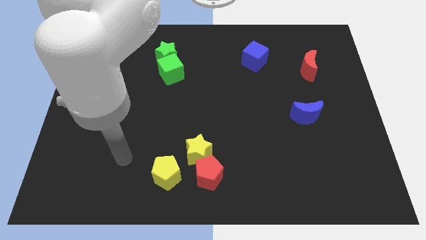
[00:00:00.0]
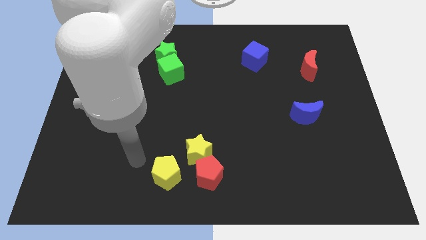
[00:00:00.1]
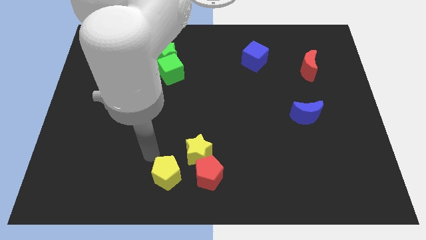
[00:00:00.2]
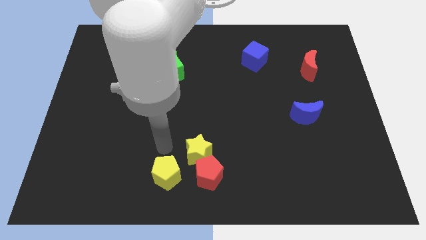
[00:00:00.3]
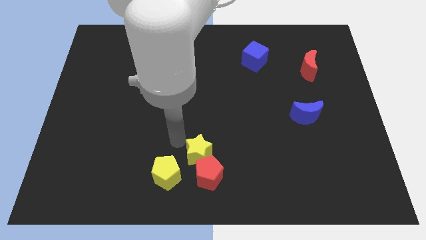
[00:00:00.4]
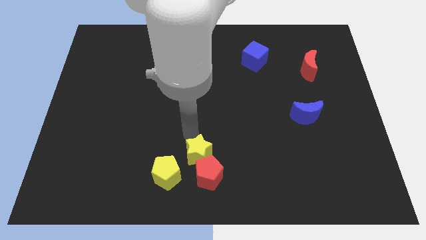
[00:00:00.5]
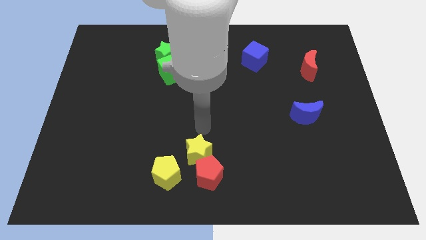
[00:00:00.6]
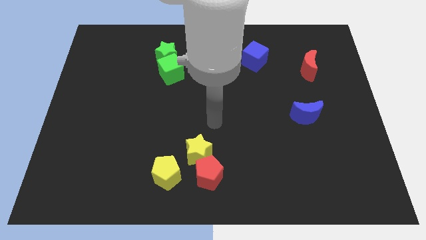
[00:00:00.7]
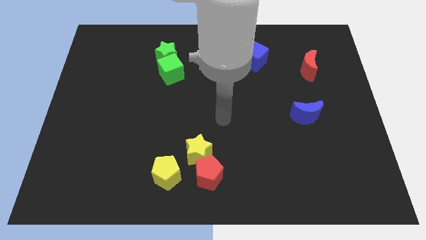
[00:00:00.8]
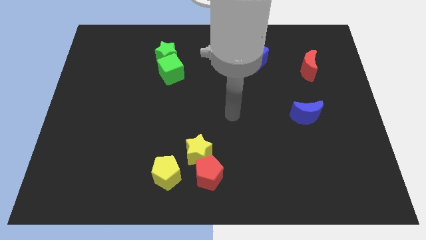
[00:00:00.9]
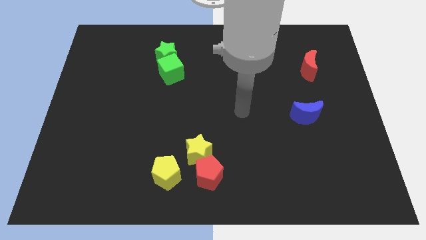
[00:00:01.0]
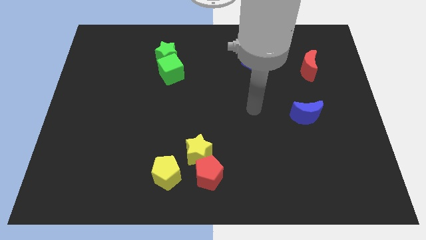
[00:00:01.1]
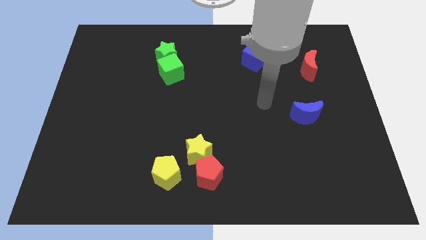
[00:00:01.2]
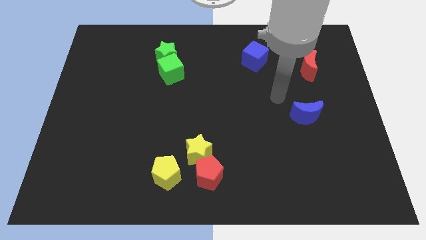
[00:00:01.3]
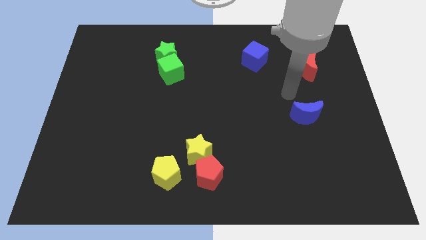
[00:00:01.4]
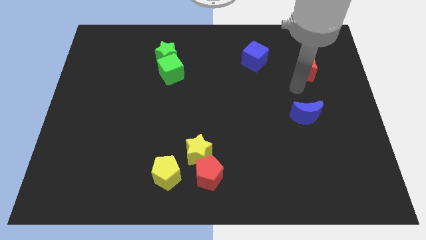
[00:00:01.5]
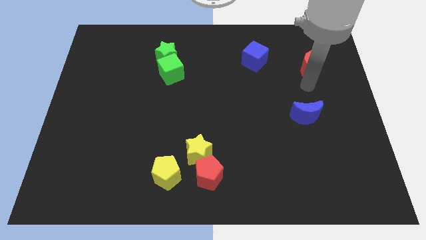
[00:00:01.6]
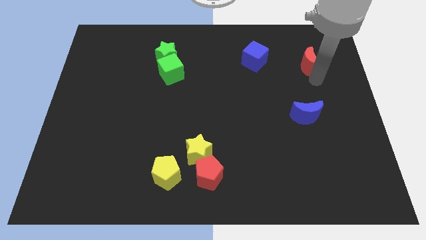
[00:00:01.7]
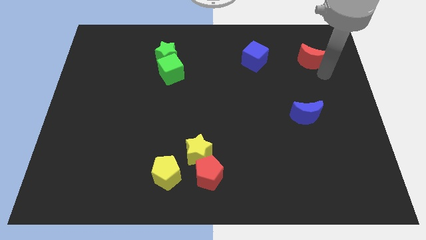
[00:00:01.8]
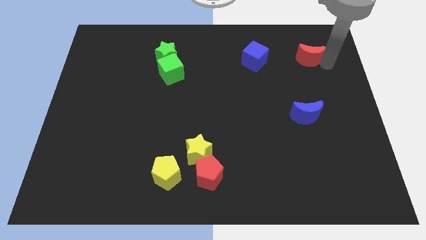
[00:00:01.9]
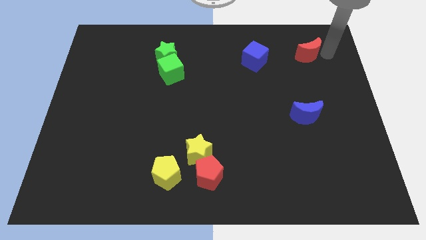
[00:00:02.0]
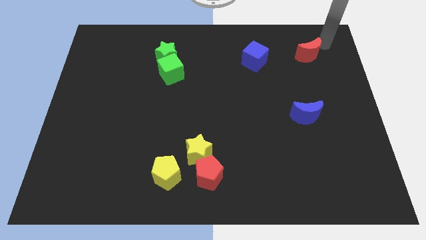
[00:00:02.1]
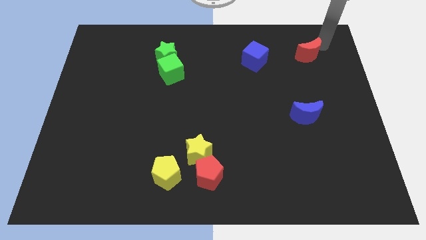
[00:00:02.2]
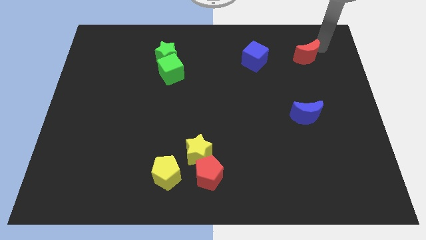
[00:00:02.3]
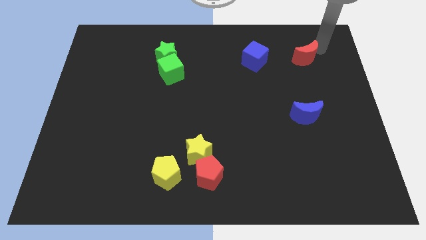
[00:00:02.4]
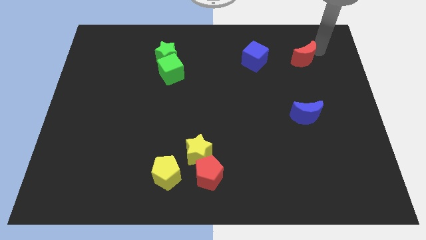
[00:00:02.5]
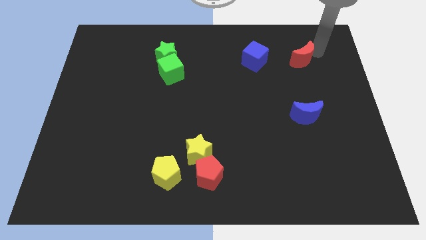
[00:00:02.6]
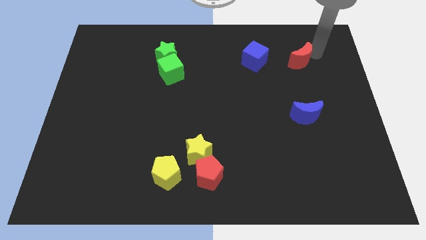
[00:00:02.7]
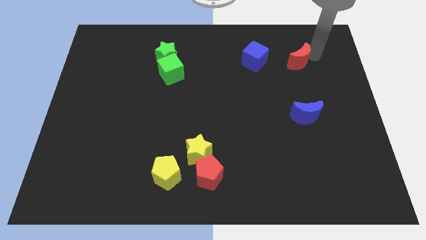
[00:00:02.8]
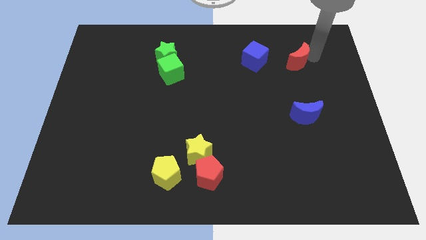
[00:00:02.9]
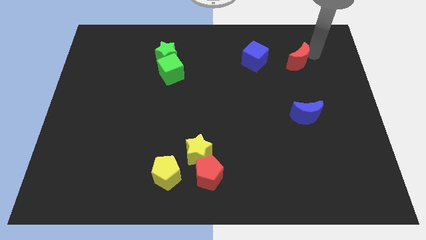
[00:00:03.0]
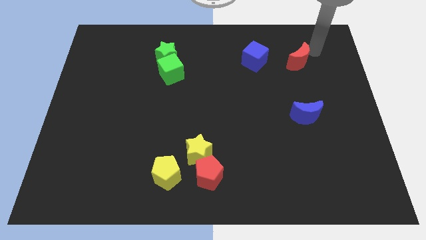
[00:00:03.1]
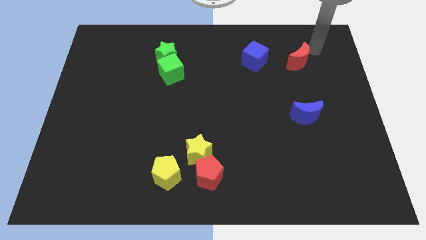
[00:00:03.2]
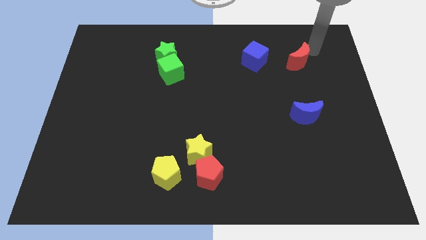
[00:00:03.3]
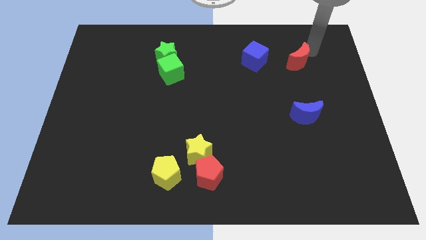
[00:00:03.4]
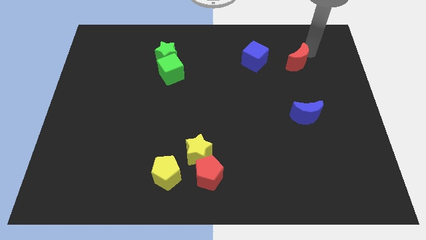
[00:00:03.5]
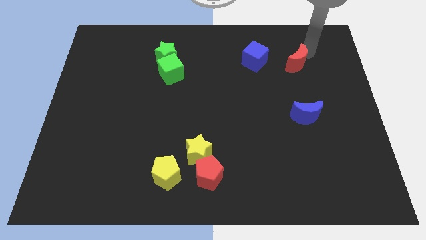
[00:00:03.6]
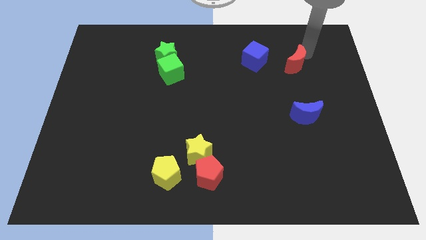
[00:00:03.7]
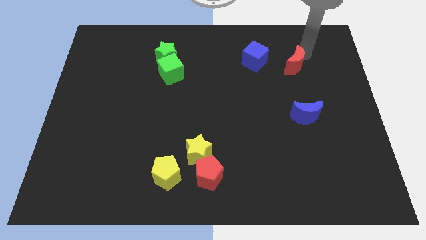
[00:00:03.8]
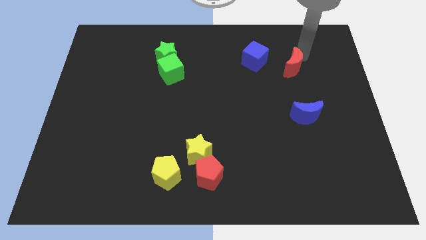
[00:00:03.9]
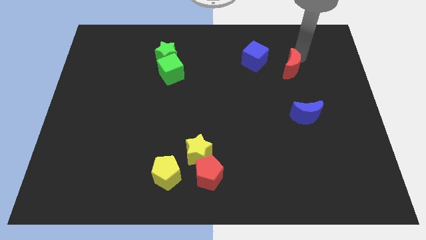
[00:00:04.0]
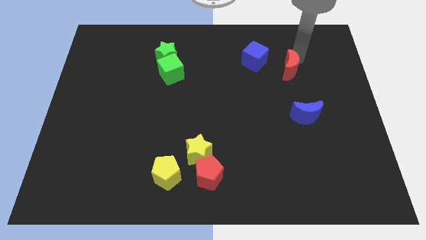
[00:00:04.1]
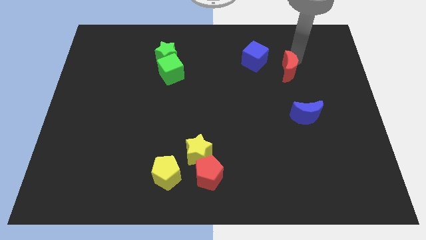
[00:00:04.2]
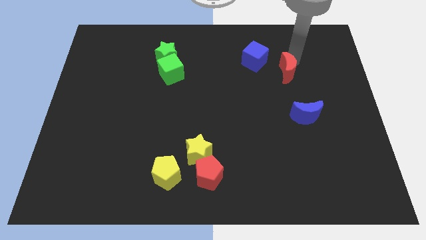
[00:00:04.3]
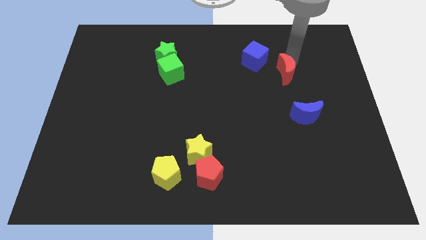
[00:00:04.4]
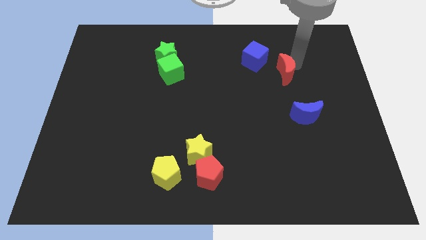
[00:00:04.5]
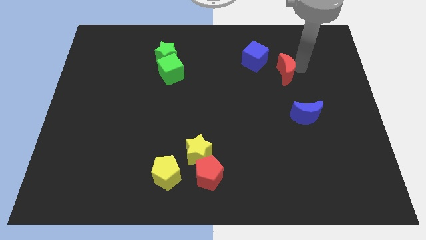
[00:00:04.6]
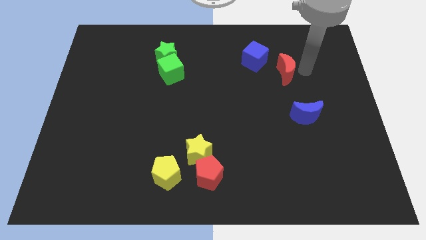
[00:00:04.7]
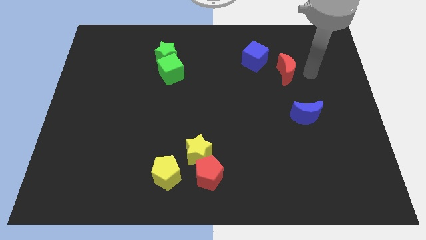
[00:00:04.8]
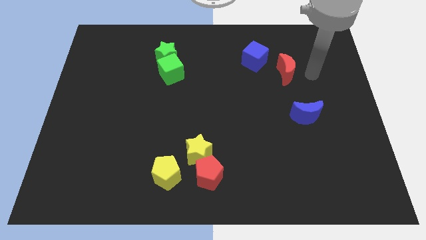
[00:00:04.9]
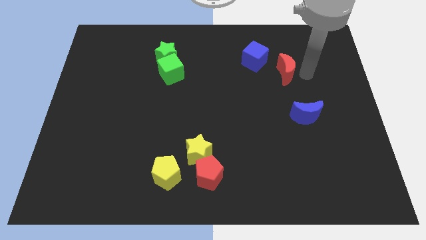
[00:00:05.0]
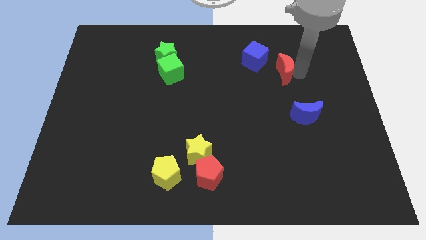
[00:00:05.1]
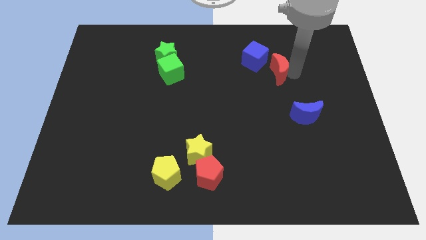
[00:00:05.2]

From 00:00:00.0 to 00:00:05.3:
slightly move the red moon to the left

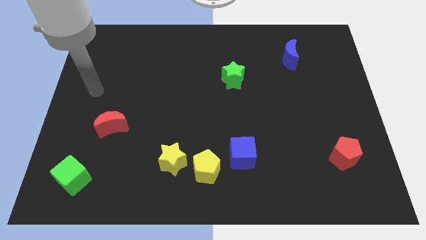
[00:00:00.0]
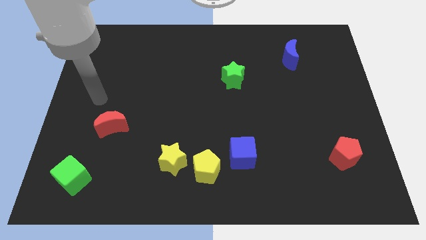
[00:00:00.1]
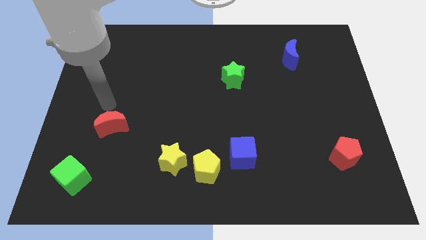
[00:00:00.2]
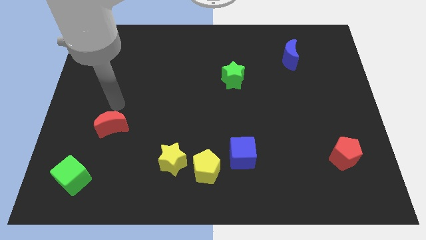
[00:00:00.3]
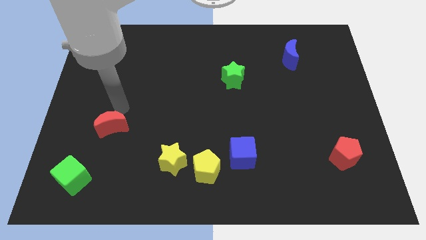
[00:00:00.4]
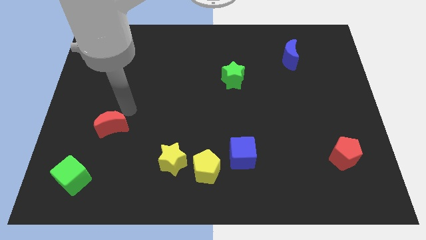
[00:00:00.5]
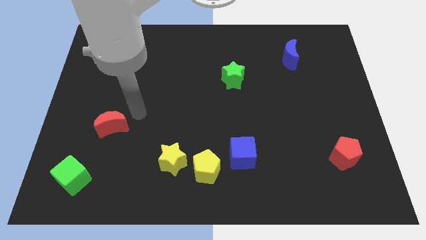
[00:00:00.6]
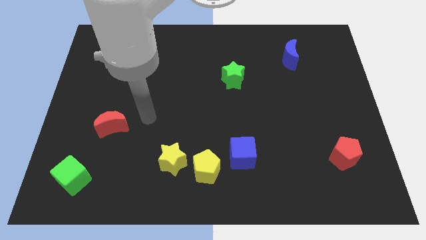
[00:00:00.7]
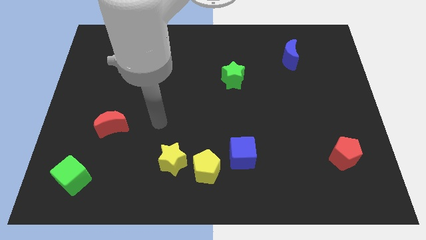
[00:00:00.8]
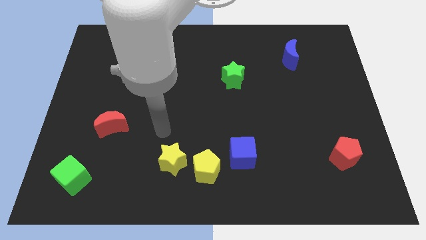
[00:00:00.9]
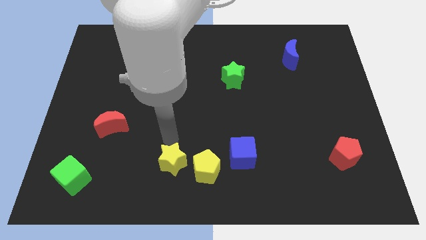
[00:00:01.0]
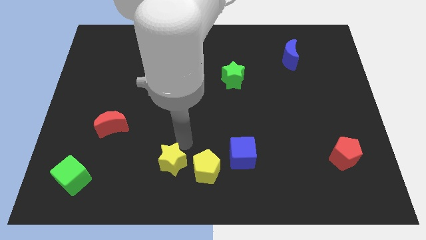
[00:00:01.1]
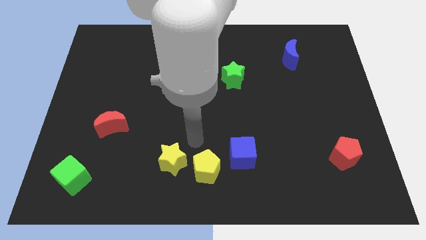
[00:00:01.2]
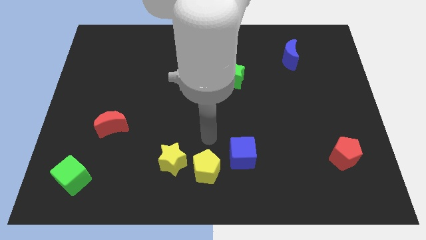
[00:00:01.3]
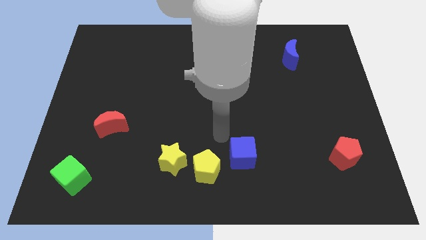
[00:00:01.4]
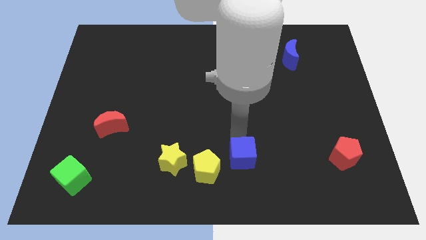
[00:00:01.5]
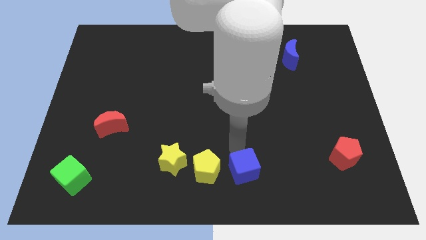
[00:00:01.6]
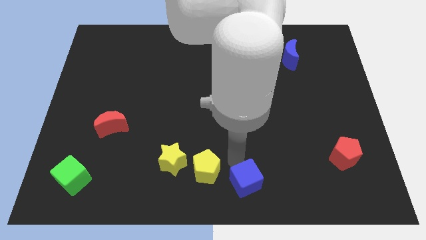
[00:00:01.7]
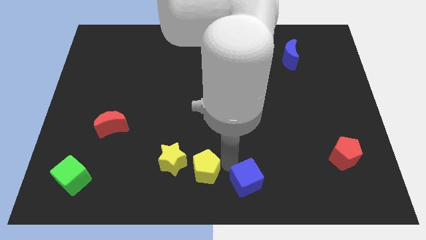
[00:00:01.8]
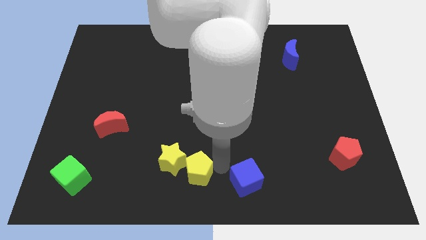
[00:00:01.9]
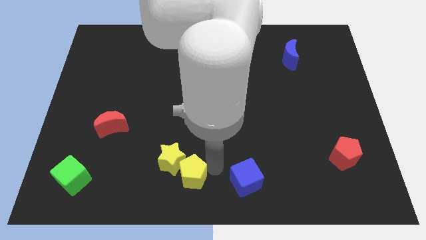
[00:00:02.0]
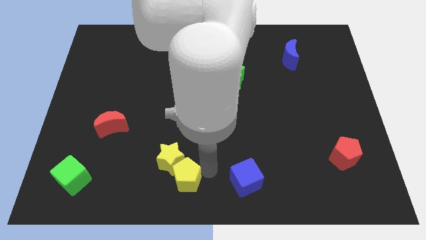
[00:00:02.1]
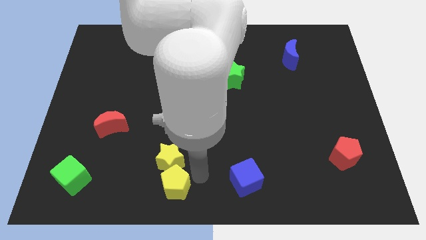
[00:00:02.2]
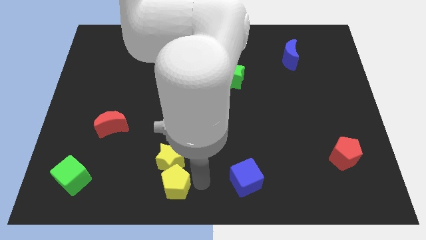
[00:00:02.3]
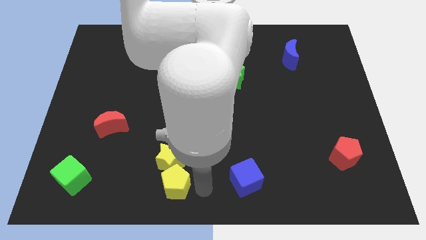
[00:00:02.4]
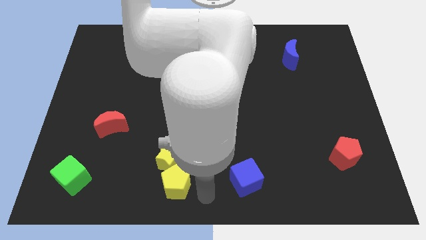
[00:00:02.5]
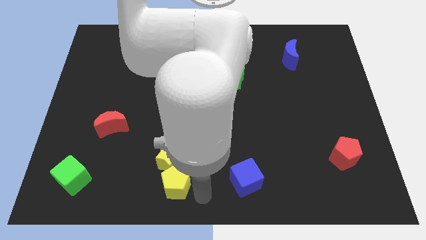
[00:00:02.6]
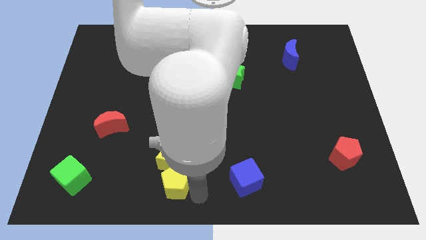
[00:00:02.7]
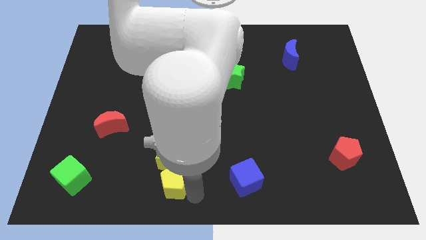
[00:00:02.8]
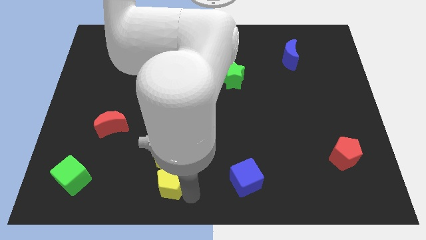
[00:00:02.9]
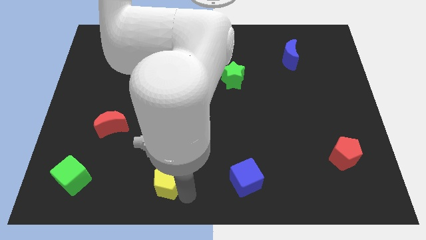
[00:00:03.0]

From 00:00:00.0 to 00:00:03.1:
slightly slide the yellow pentagon left
